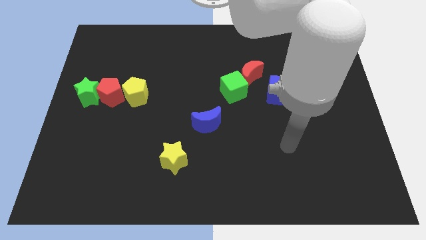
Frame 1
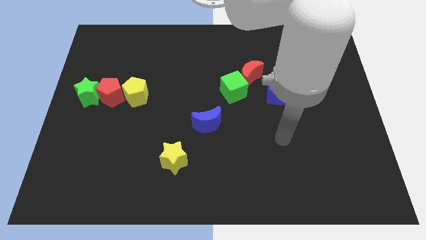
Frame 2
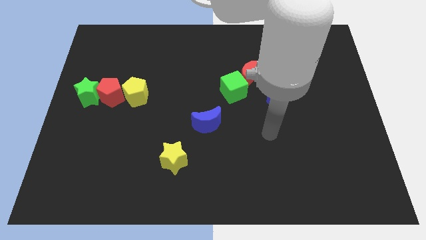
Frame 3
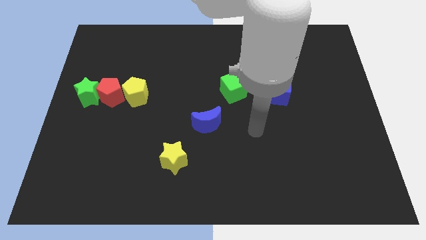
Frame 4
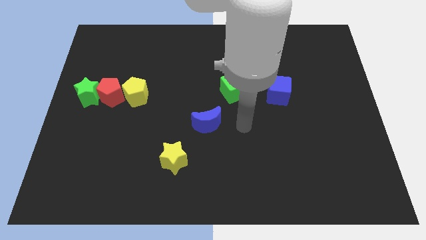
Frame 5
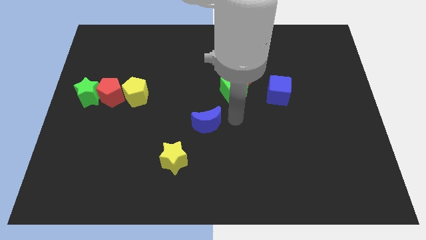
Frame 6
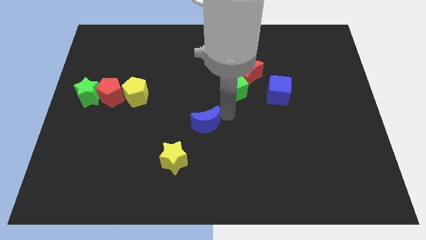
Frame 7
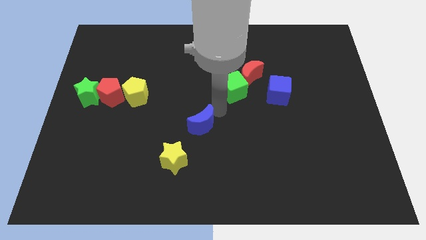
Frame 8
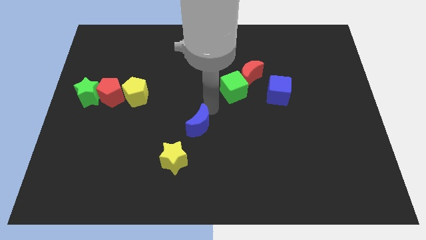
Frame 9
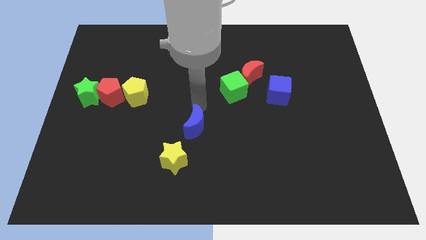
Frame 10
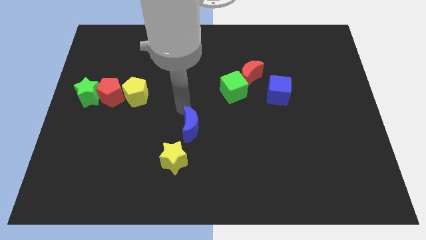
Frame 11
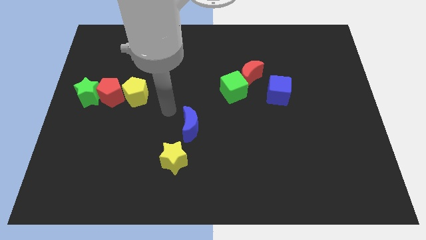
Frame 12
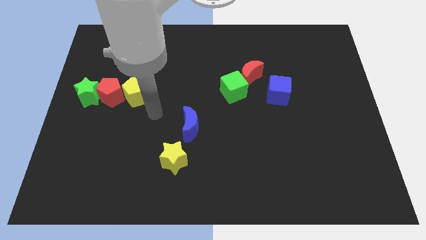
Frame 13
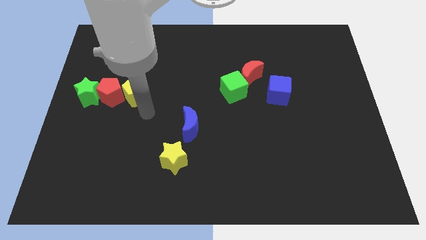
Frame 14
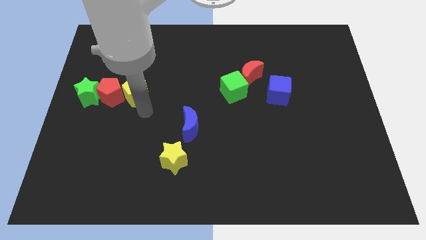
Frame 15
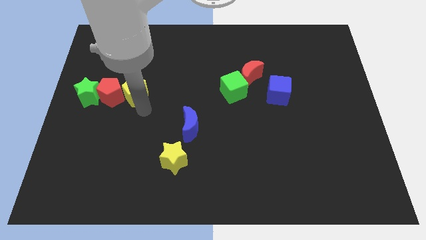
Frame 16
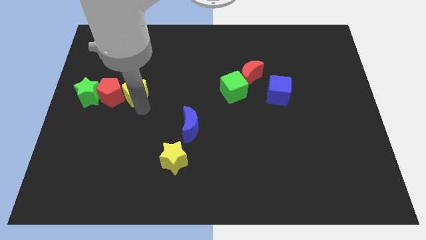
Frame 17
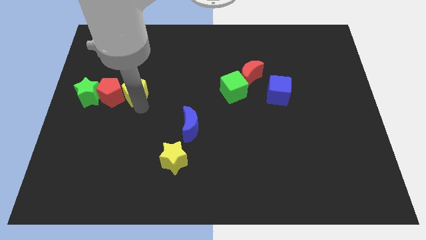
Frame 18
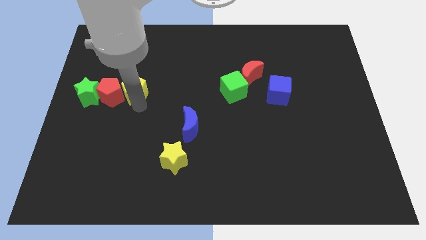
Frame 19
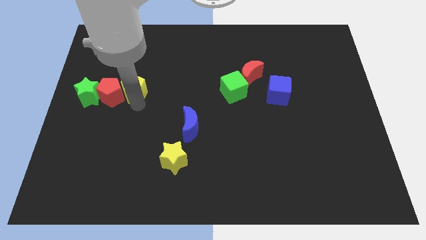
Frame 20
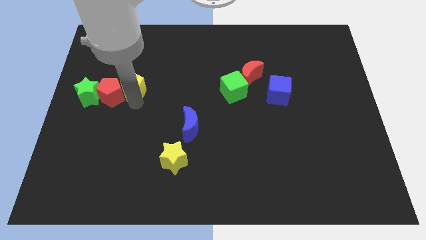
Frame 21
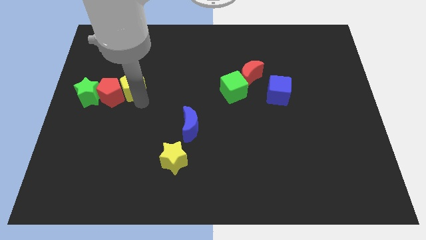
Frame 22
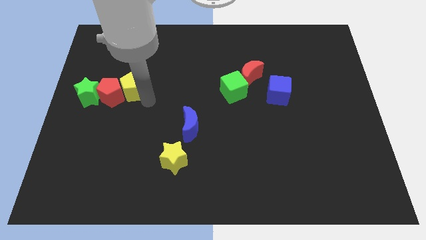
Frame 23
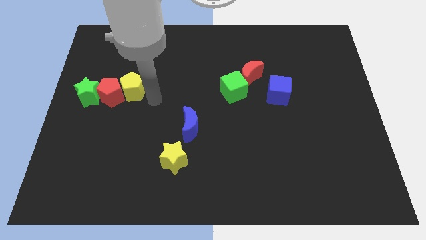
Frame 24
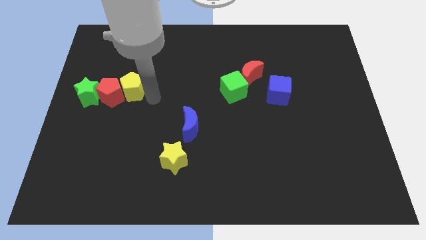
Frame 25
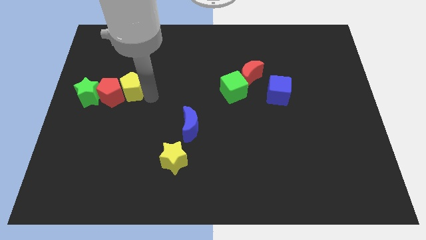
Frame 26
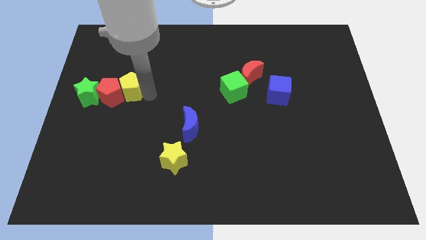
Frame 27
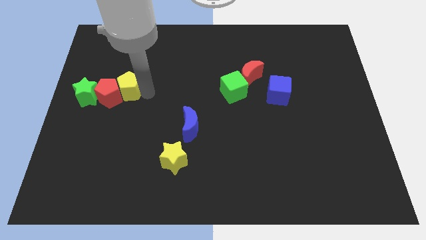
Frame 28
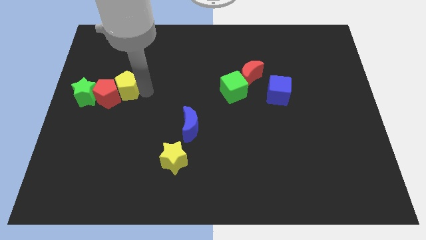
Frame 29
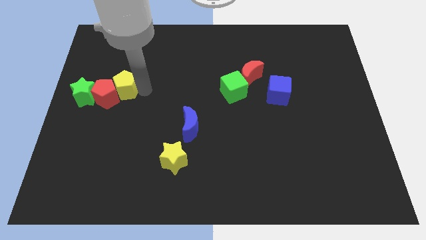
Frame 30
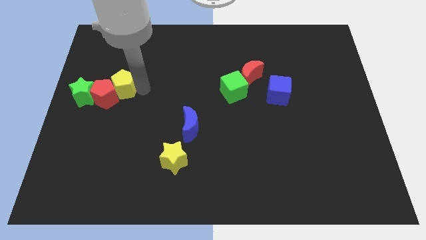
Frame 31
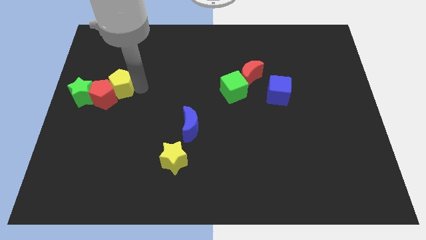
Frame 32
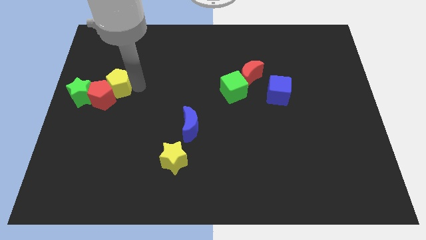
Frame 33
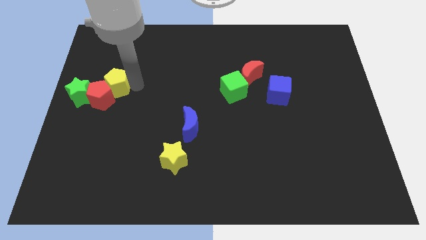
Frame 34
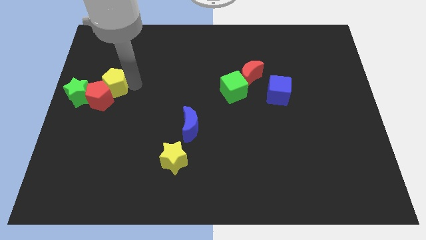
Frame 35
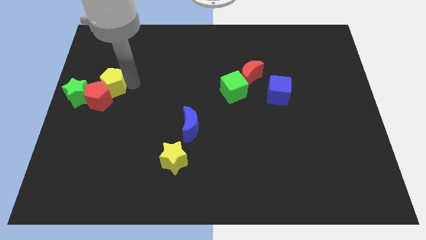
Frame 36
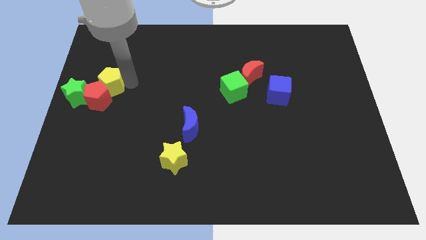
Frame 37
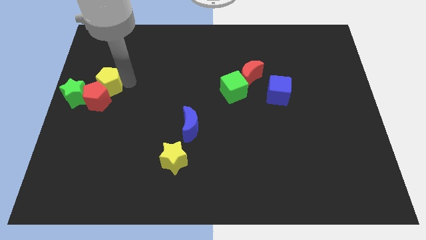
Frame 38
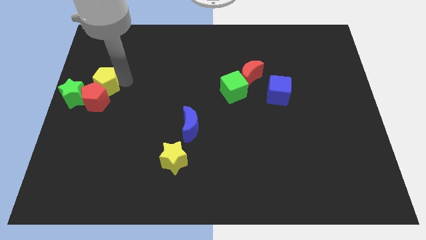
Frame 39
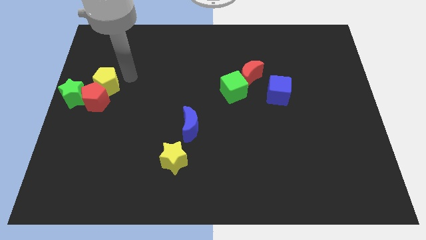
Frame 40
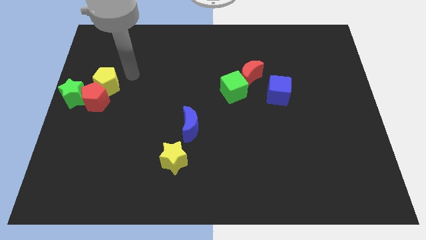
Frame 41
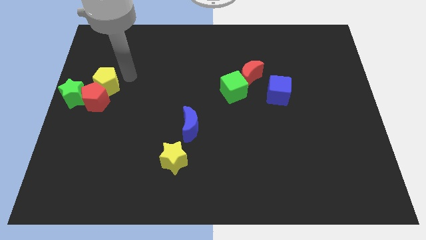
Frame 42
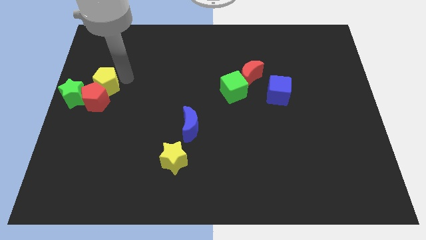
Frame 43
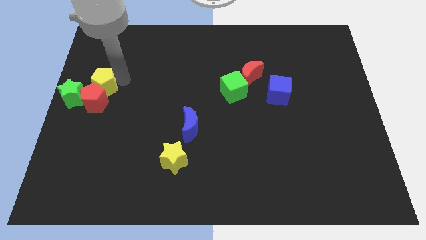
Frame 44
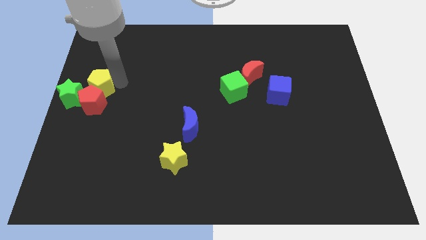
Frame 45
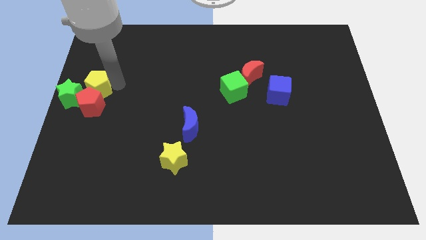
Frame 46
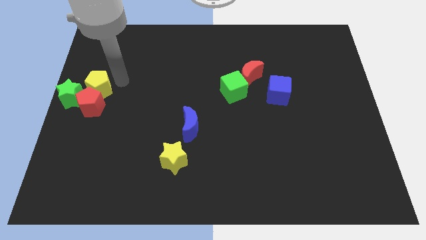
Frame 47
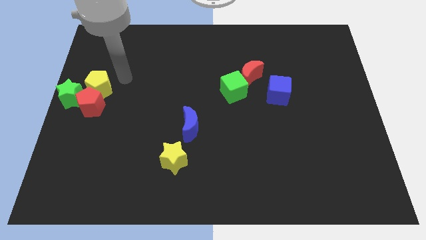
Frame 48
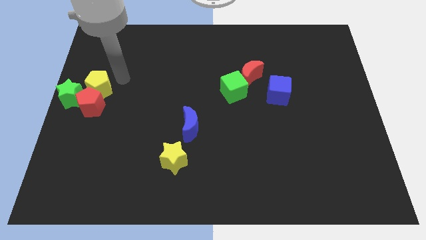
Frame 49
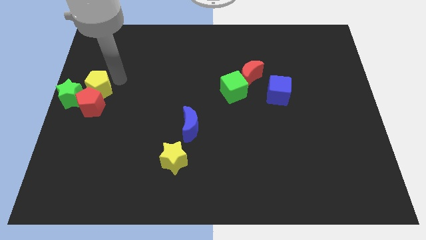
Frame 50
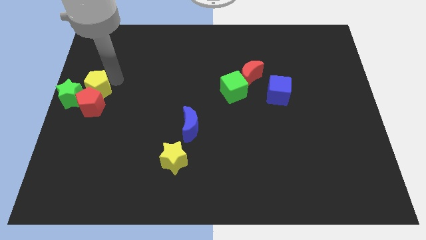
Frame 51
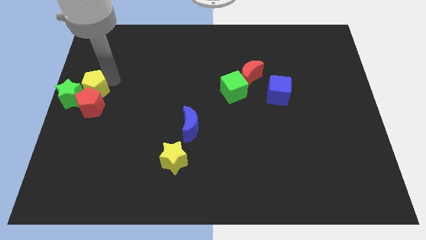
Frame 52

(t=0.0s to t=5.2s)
put the yellow pentagon next to the green star

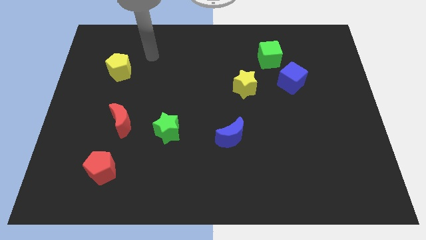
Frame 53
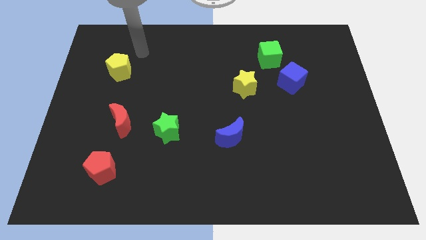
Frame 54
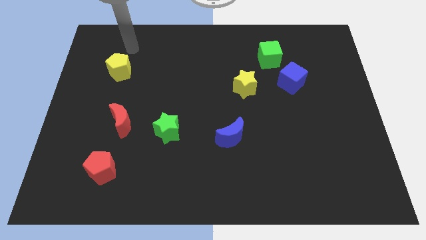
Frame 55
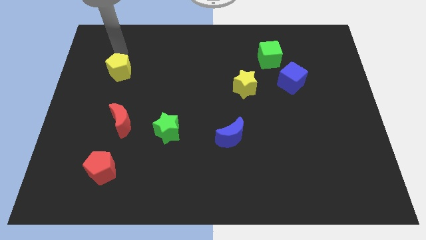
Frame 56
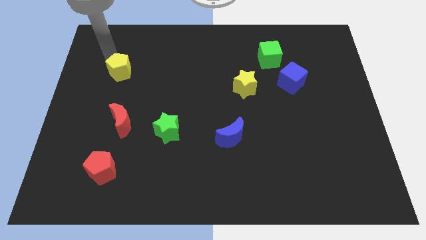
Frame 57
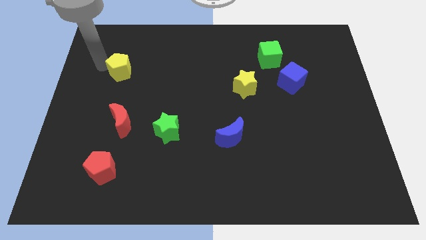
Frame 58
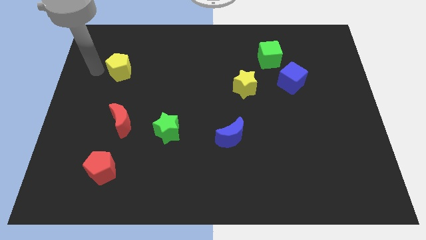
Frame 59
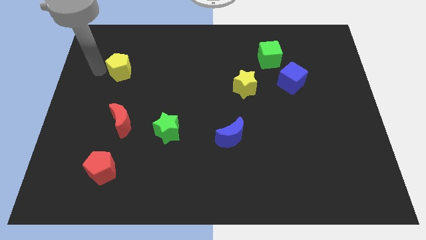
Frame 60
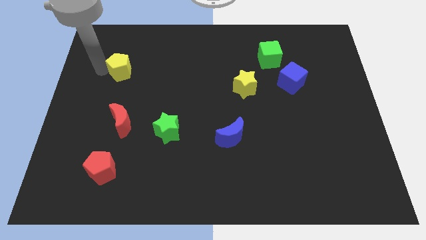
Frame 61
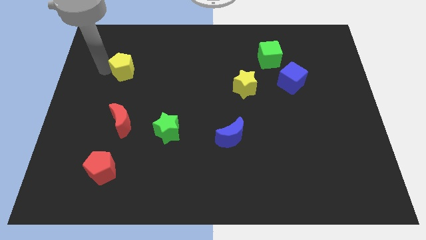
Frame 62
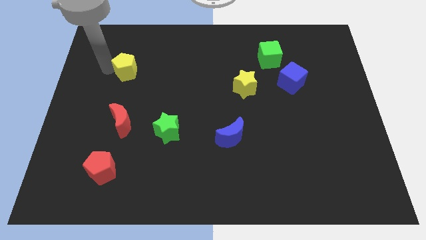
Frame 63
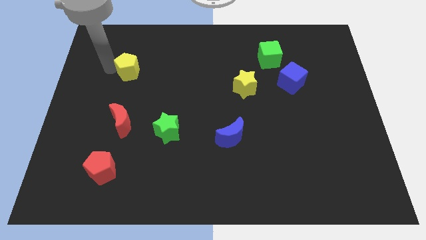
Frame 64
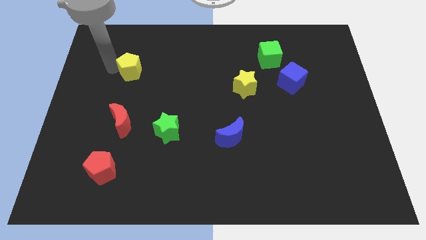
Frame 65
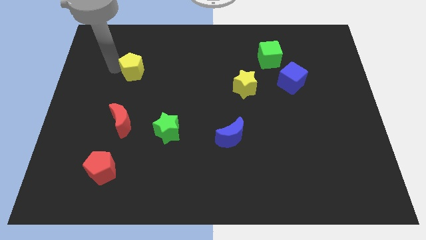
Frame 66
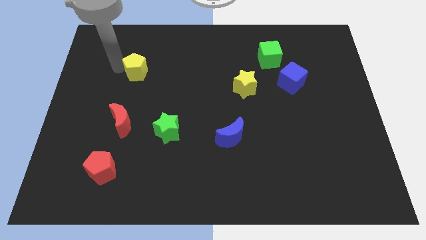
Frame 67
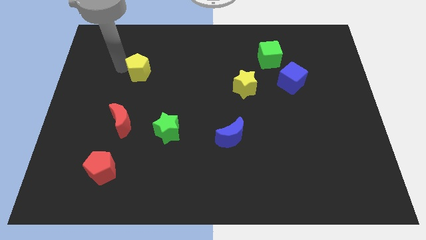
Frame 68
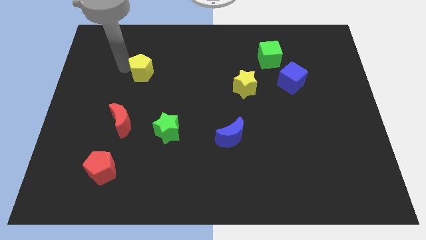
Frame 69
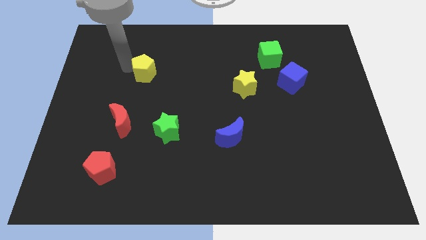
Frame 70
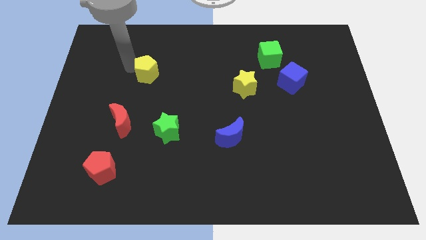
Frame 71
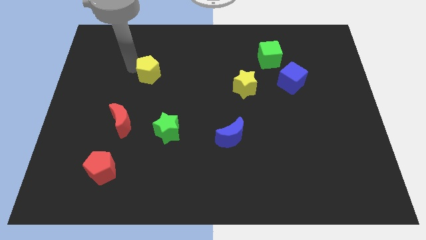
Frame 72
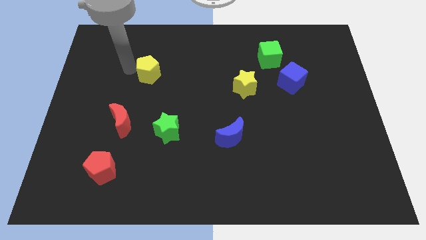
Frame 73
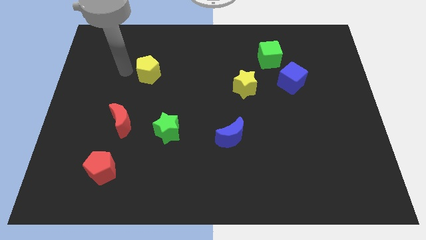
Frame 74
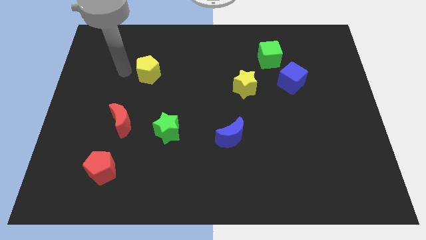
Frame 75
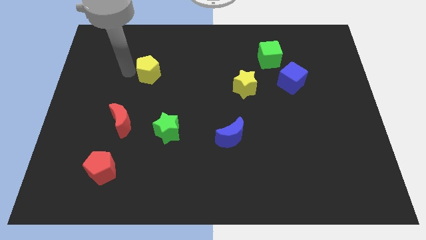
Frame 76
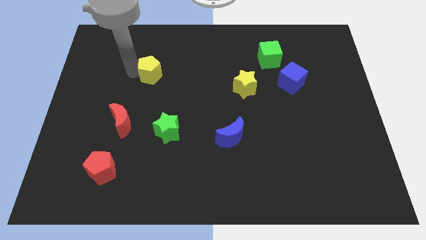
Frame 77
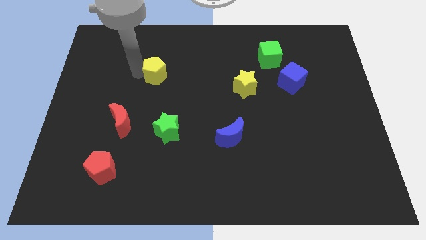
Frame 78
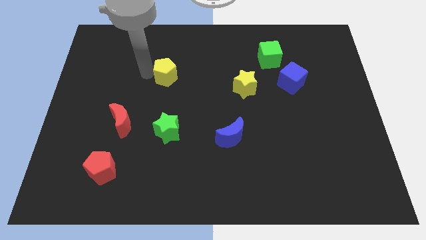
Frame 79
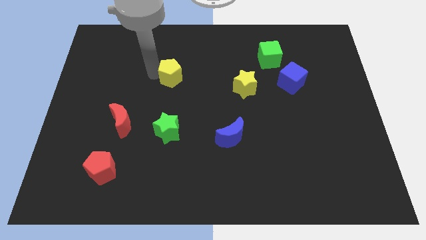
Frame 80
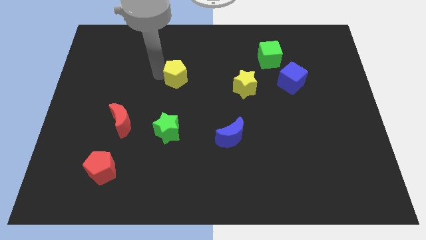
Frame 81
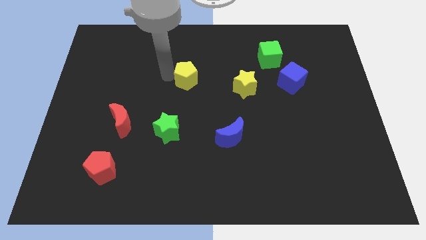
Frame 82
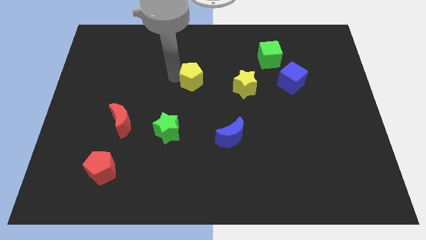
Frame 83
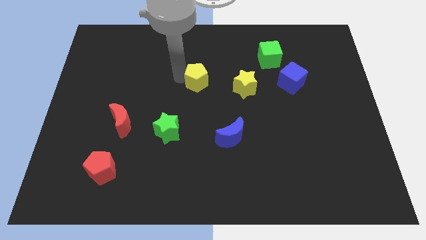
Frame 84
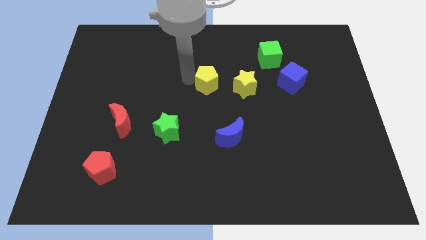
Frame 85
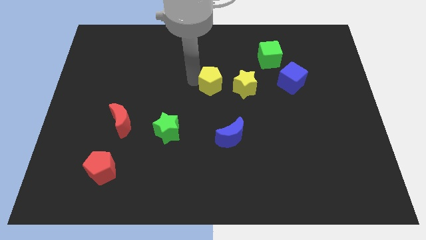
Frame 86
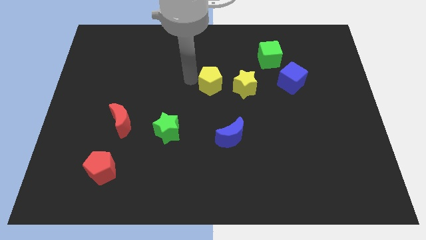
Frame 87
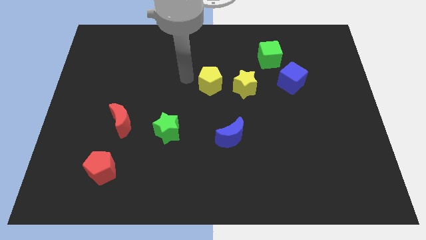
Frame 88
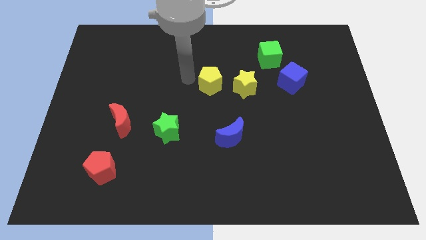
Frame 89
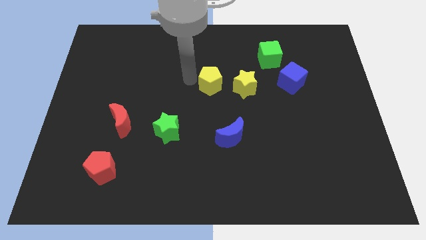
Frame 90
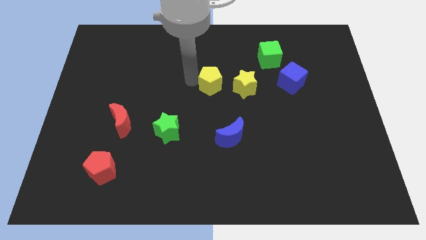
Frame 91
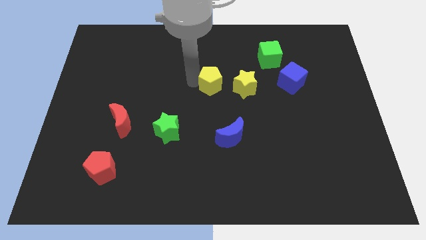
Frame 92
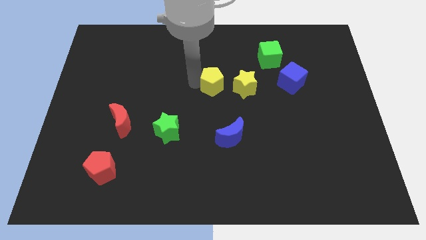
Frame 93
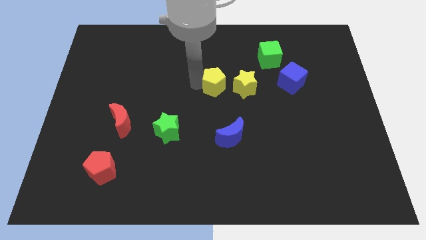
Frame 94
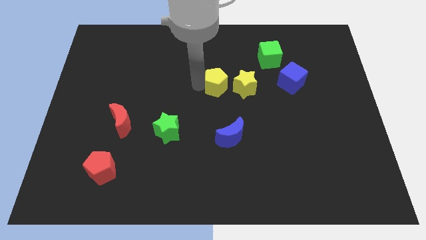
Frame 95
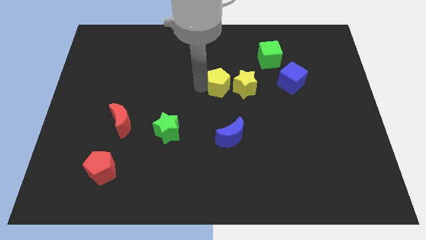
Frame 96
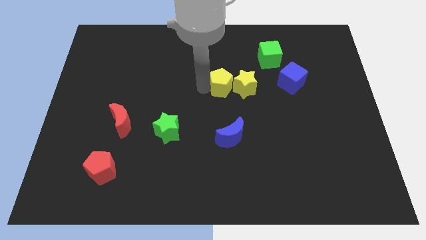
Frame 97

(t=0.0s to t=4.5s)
slide the yellow pentagon close to the yellow star
